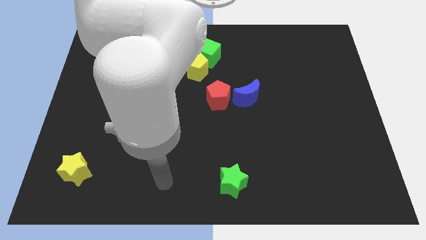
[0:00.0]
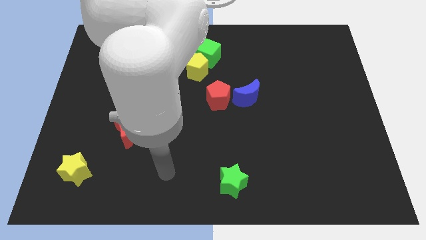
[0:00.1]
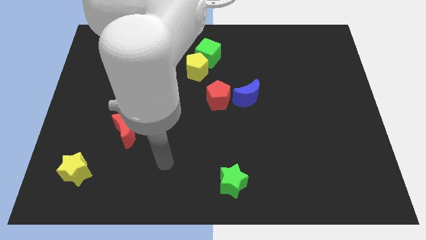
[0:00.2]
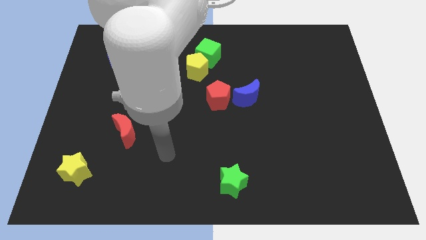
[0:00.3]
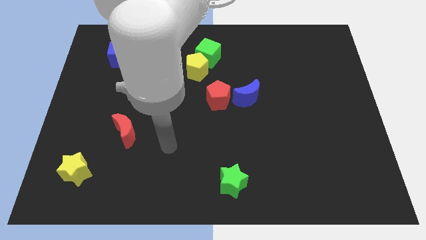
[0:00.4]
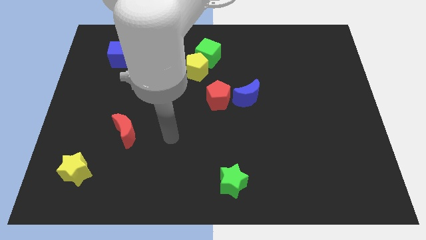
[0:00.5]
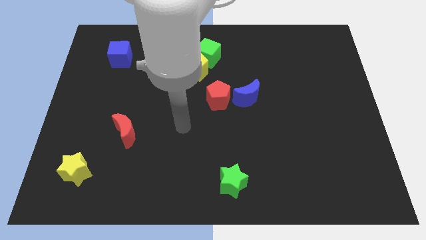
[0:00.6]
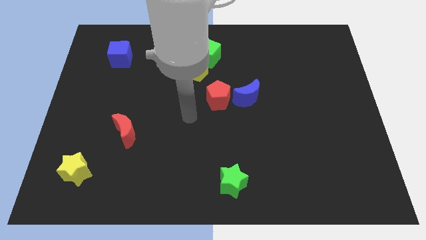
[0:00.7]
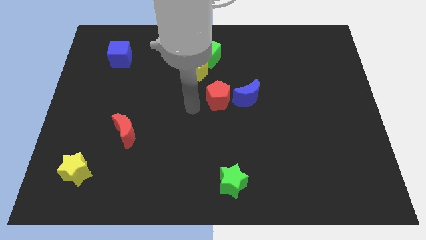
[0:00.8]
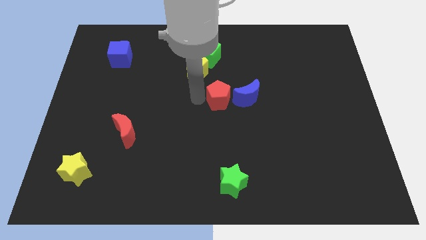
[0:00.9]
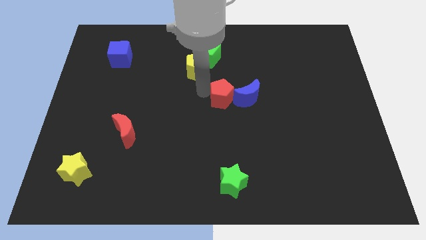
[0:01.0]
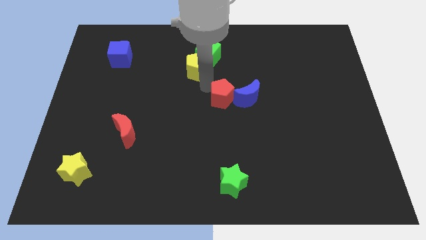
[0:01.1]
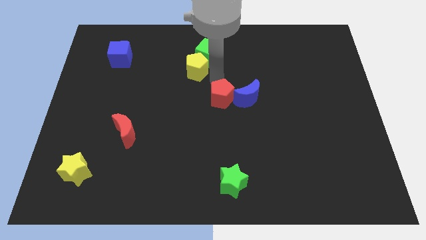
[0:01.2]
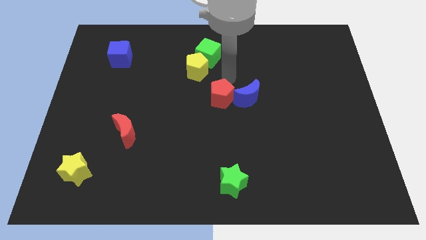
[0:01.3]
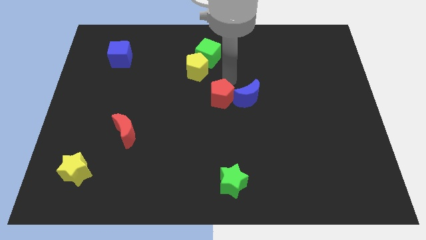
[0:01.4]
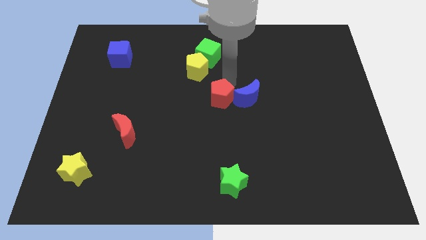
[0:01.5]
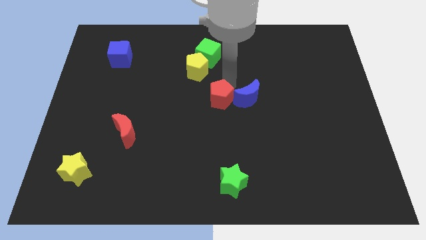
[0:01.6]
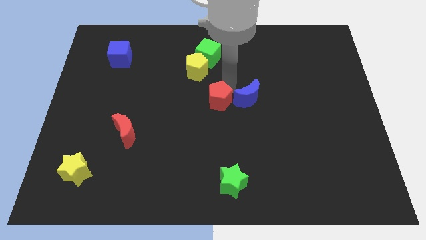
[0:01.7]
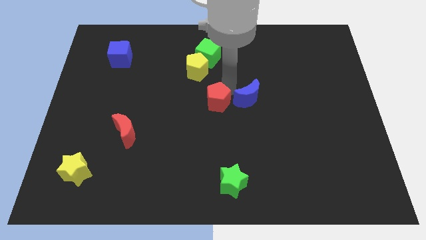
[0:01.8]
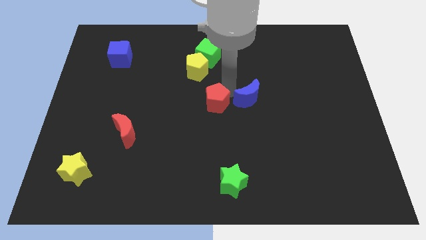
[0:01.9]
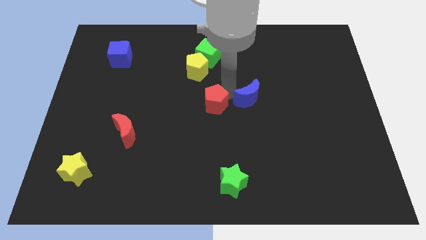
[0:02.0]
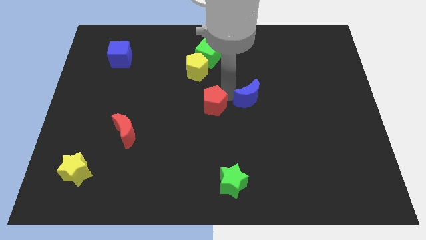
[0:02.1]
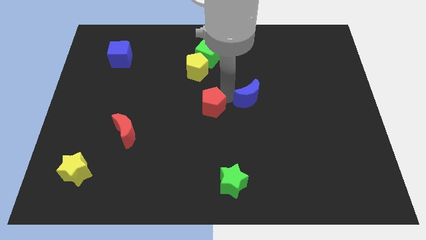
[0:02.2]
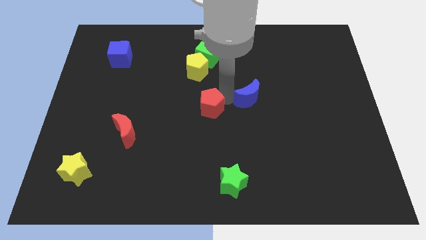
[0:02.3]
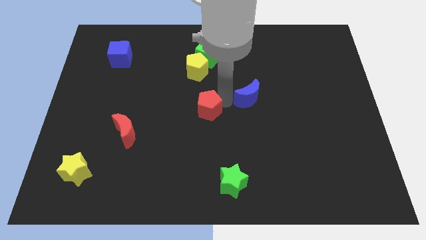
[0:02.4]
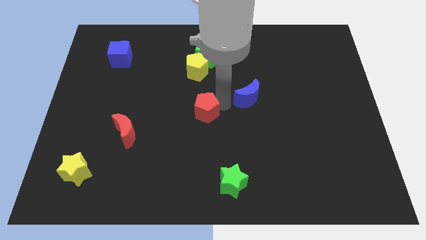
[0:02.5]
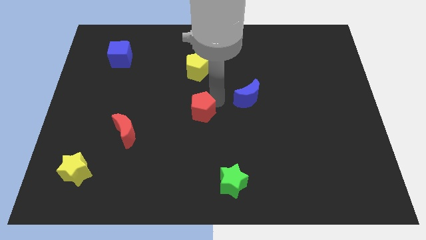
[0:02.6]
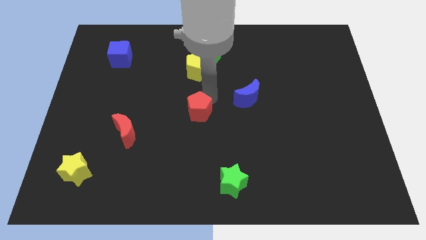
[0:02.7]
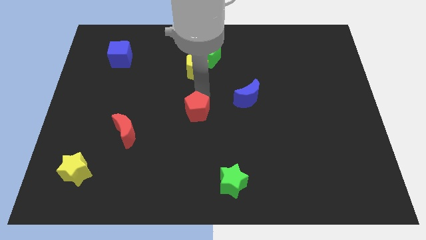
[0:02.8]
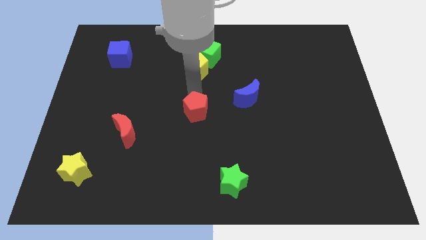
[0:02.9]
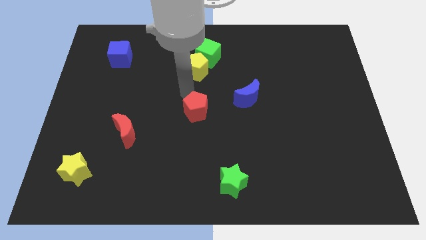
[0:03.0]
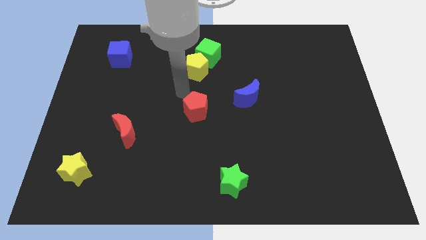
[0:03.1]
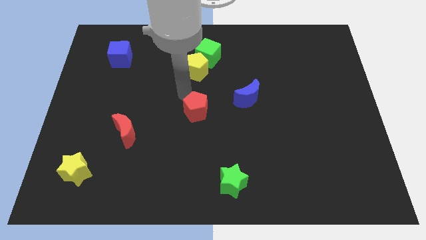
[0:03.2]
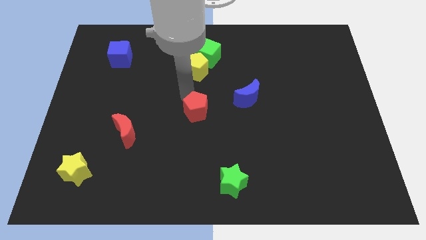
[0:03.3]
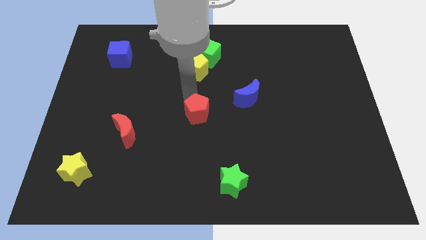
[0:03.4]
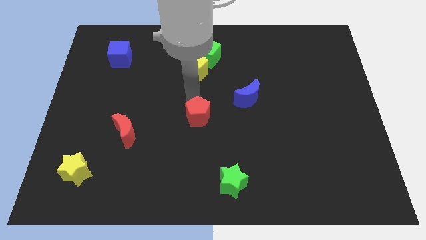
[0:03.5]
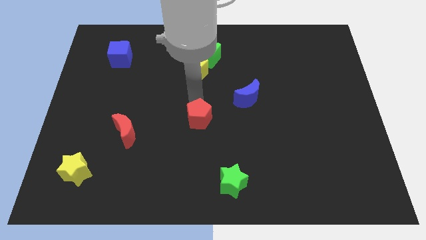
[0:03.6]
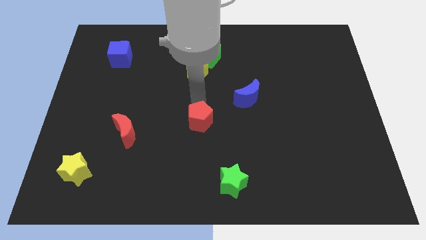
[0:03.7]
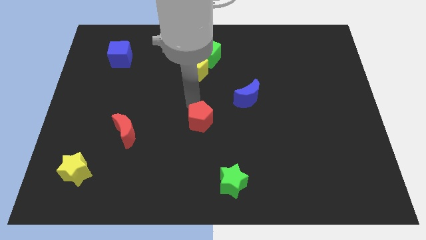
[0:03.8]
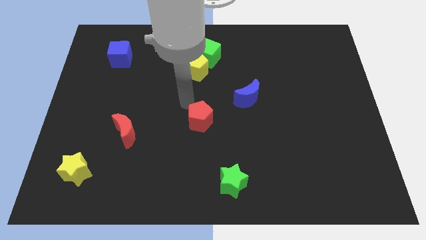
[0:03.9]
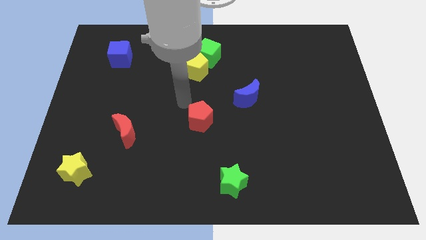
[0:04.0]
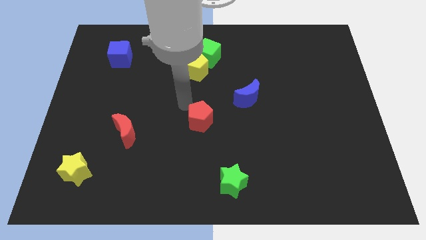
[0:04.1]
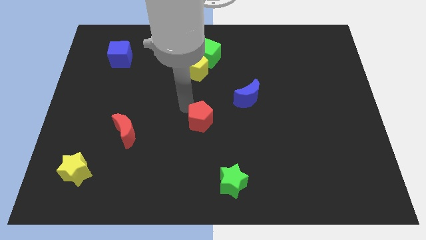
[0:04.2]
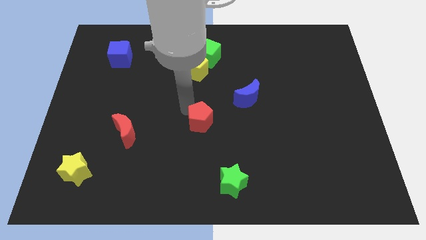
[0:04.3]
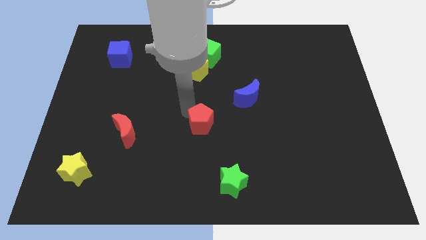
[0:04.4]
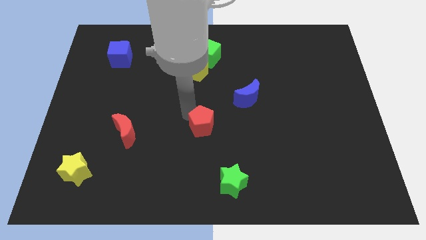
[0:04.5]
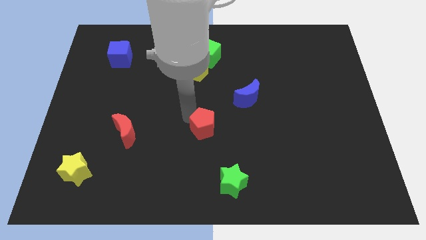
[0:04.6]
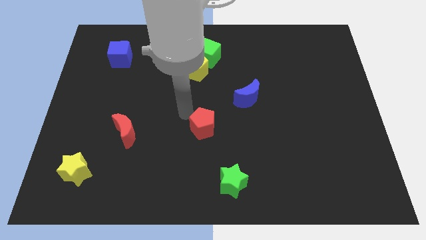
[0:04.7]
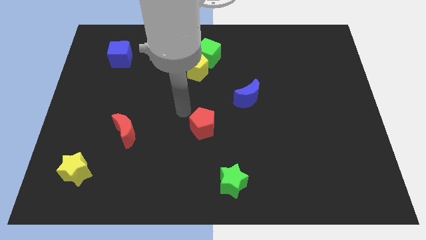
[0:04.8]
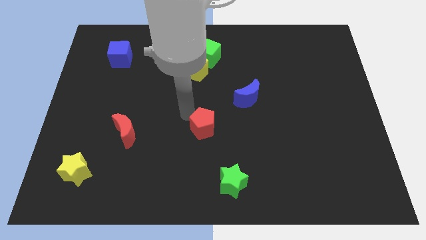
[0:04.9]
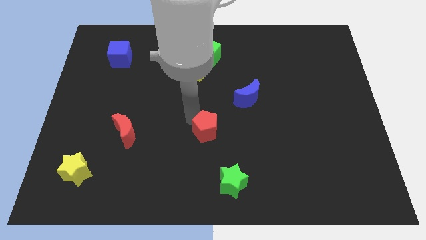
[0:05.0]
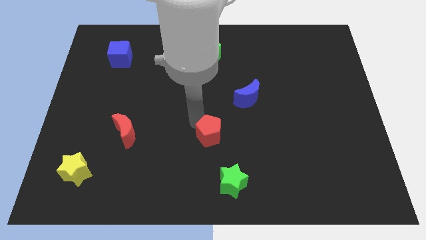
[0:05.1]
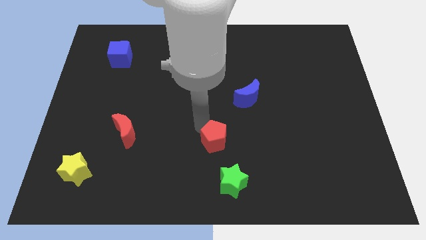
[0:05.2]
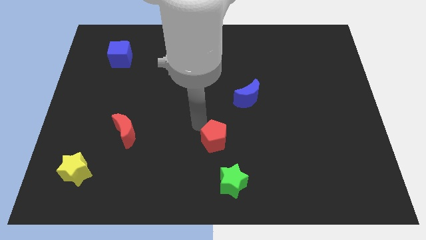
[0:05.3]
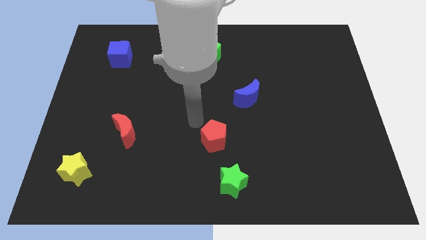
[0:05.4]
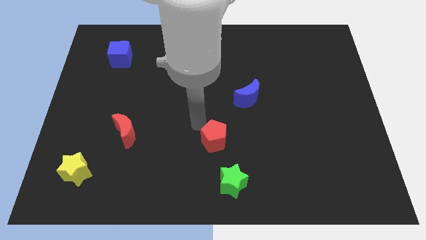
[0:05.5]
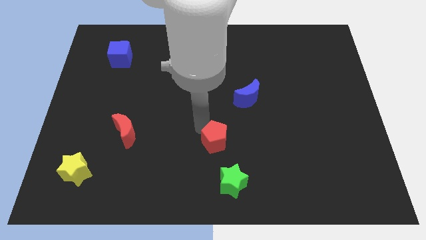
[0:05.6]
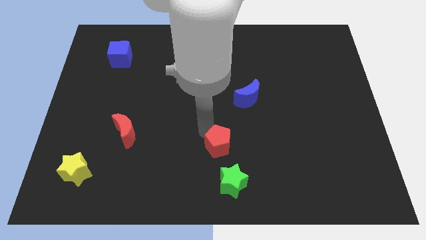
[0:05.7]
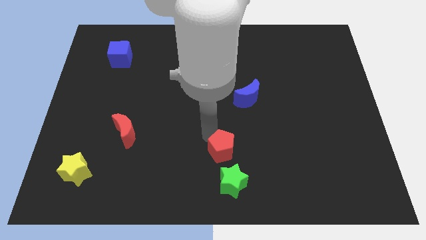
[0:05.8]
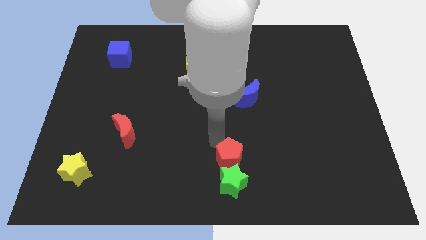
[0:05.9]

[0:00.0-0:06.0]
slide the red pentagon close to the green star

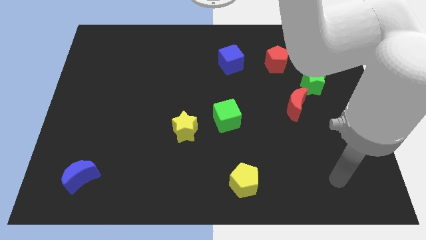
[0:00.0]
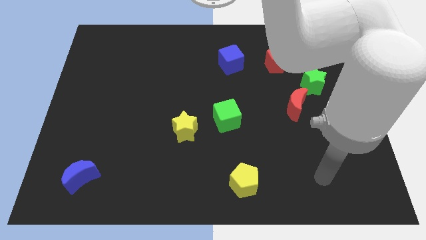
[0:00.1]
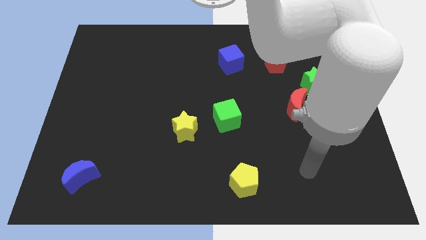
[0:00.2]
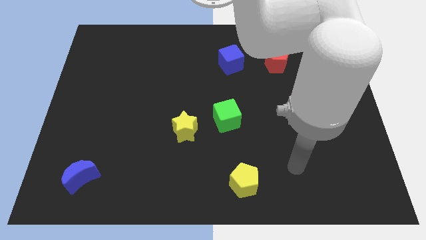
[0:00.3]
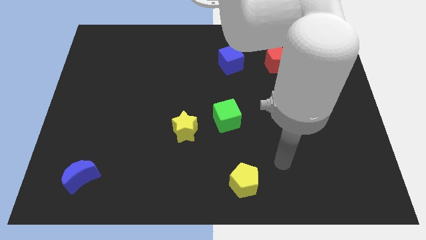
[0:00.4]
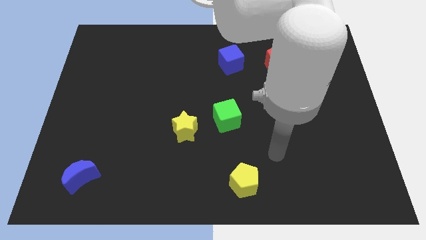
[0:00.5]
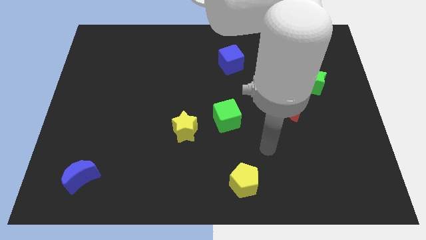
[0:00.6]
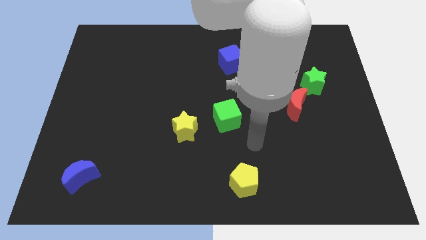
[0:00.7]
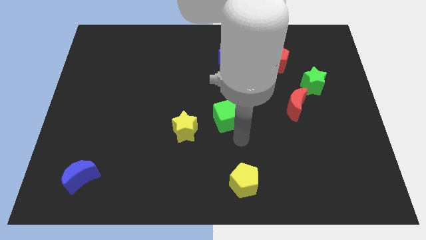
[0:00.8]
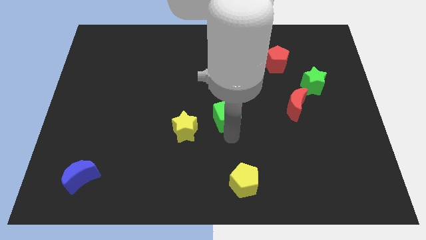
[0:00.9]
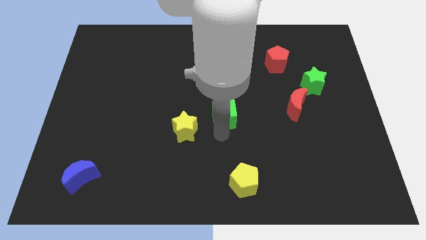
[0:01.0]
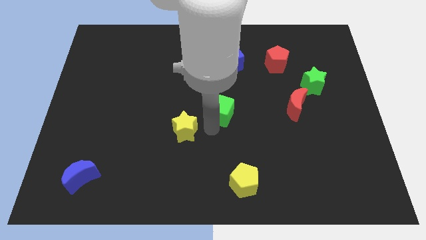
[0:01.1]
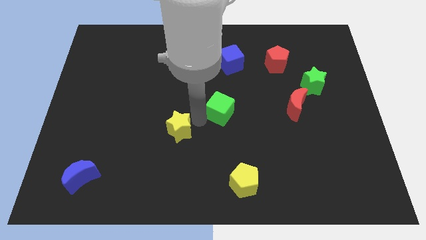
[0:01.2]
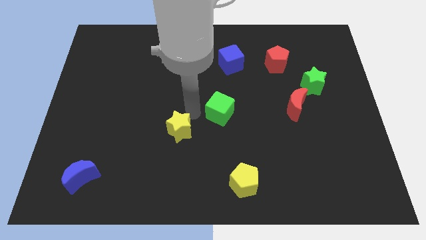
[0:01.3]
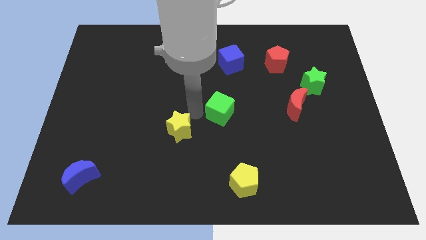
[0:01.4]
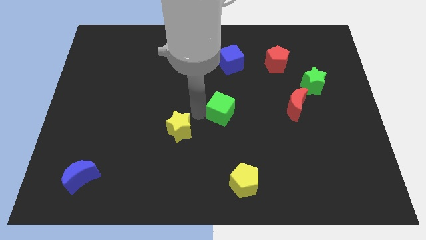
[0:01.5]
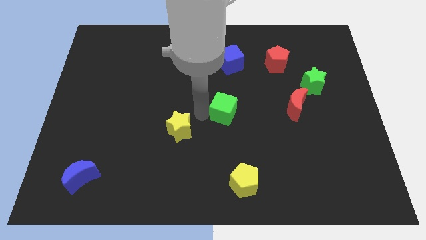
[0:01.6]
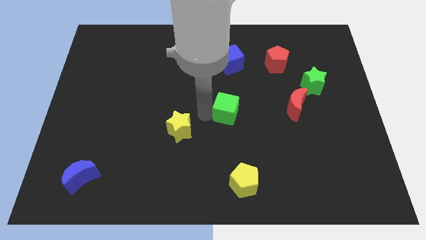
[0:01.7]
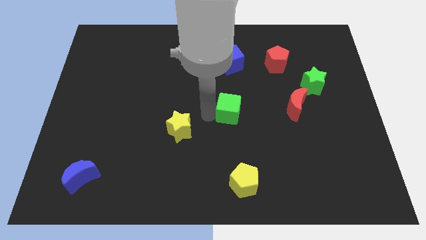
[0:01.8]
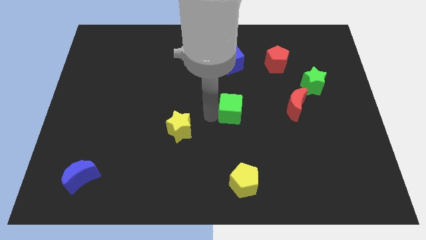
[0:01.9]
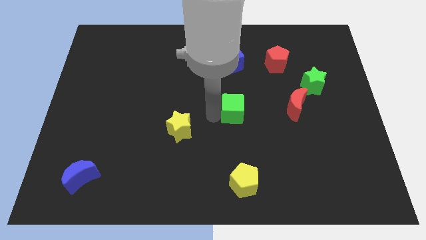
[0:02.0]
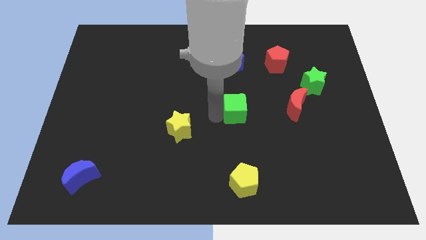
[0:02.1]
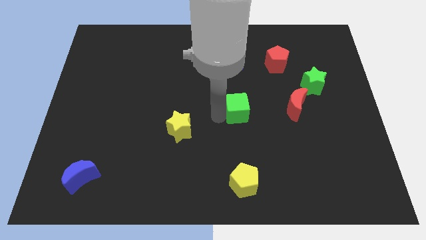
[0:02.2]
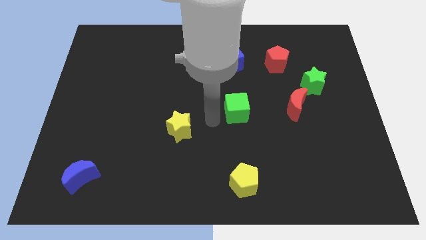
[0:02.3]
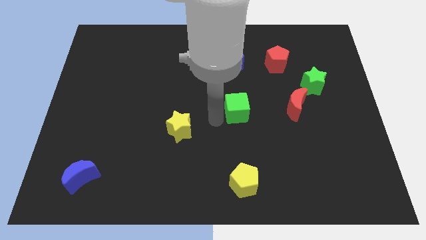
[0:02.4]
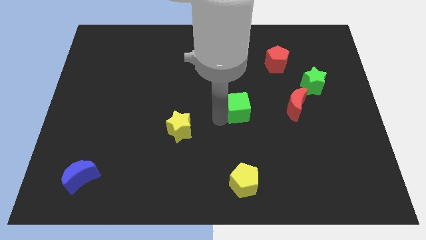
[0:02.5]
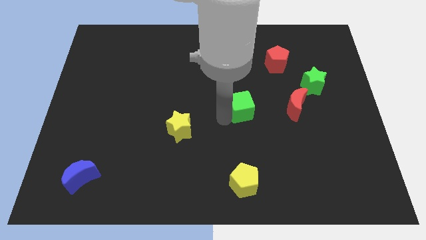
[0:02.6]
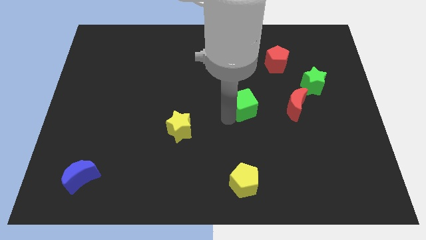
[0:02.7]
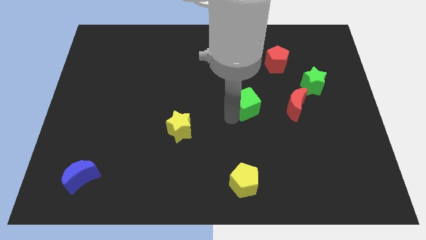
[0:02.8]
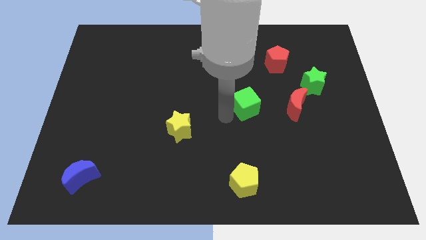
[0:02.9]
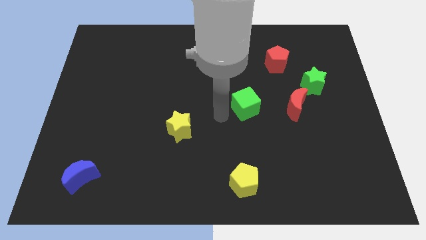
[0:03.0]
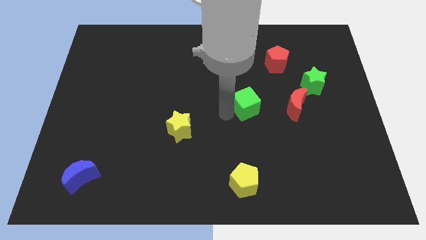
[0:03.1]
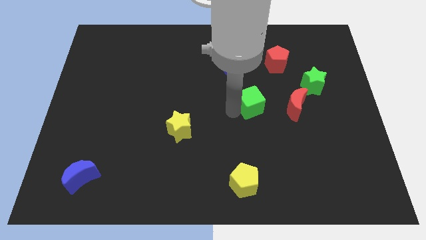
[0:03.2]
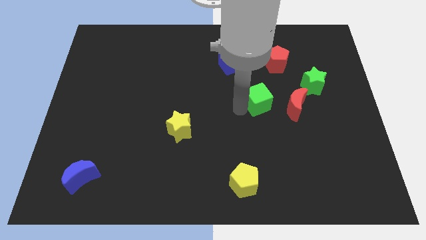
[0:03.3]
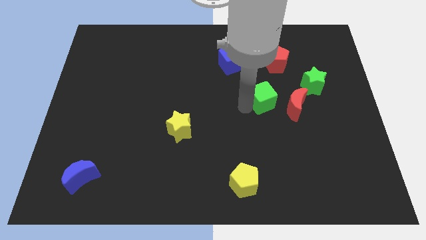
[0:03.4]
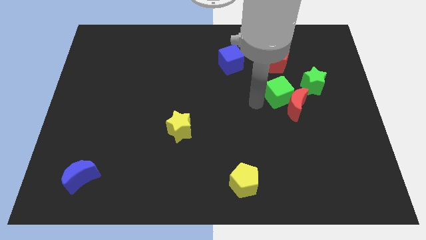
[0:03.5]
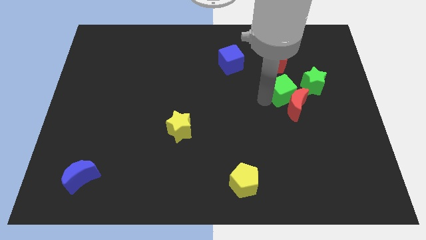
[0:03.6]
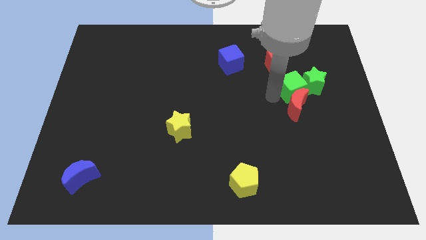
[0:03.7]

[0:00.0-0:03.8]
move the green cube towards the green star
